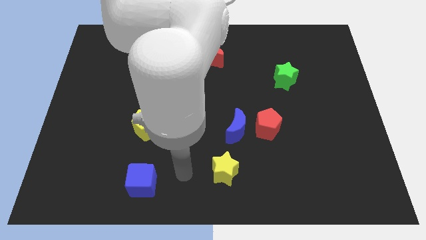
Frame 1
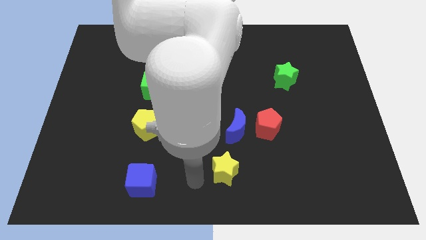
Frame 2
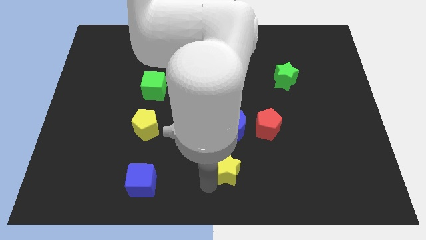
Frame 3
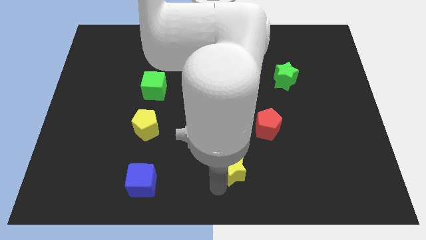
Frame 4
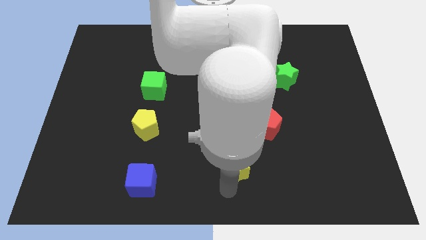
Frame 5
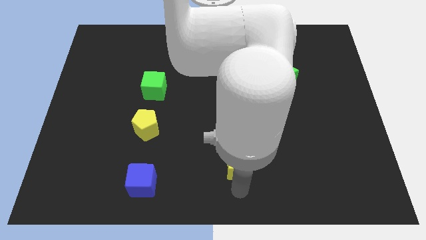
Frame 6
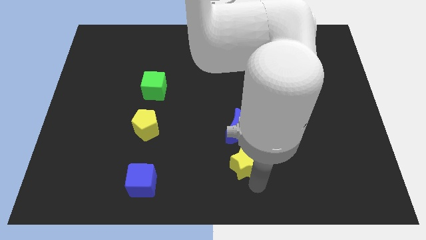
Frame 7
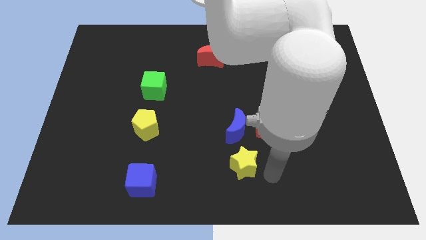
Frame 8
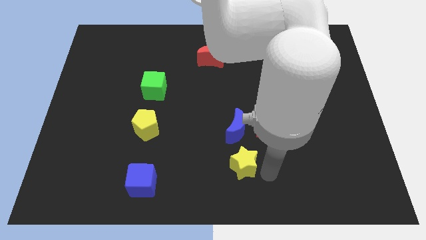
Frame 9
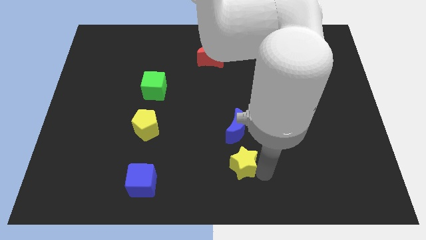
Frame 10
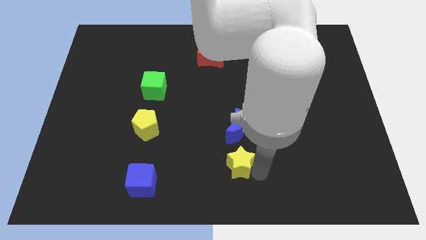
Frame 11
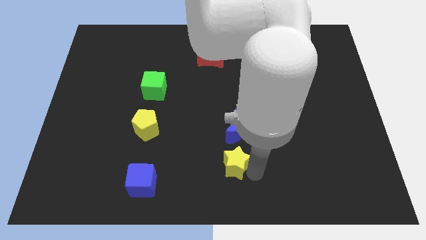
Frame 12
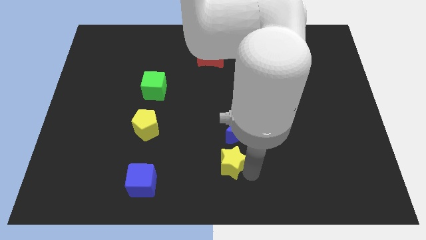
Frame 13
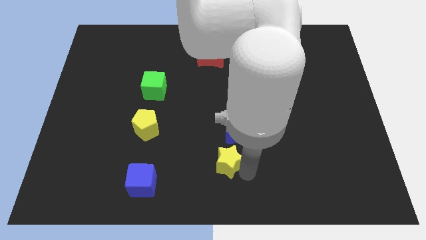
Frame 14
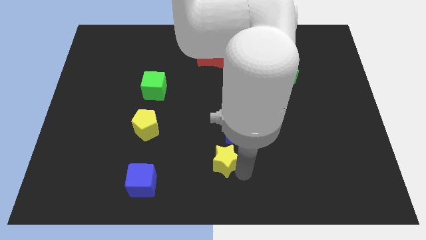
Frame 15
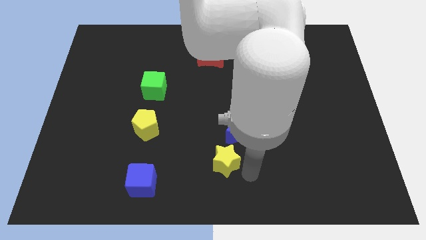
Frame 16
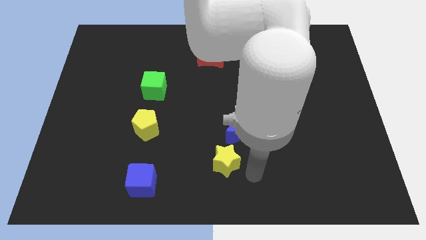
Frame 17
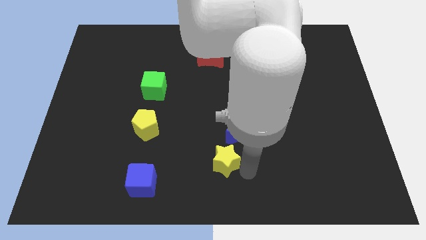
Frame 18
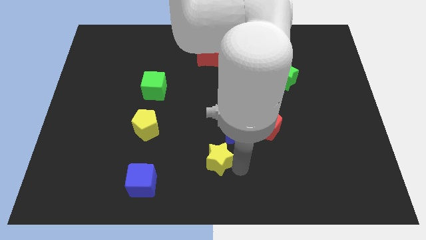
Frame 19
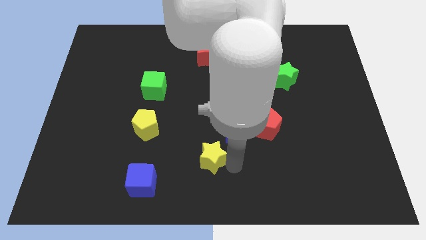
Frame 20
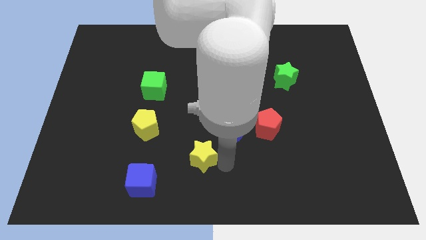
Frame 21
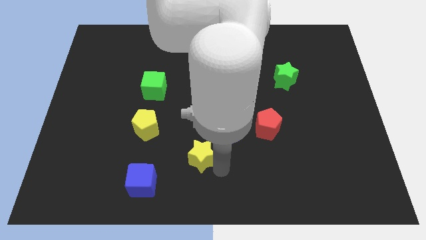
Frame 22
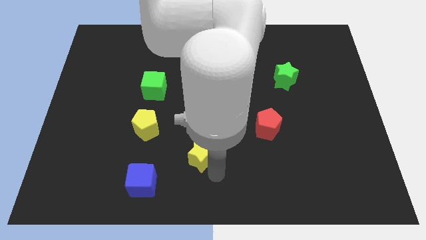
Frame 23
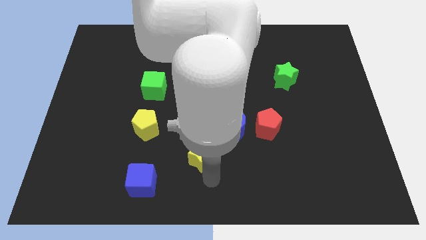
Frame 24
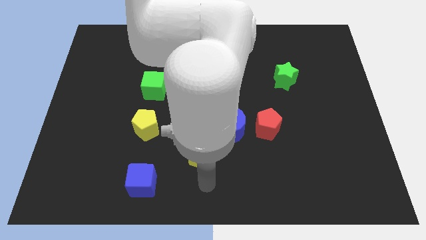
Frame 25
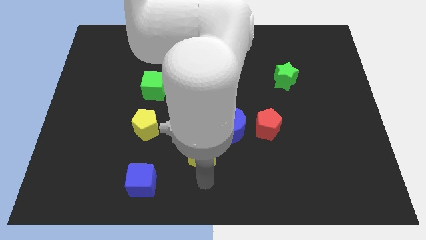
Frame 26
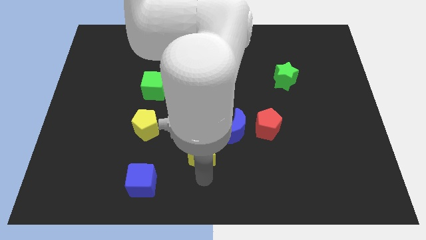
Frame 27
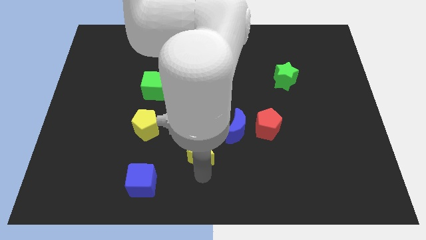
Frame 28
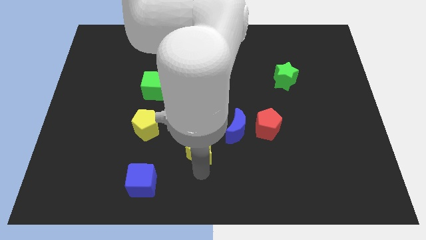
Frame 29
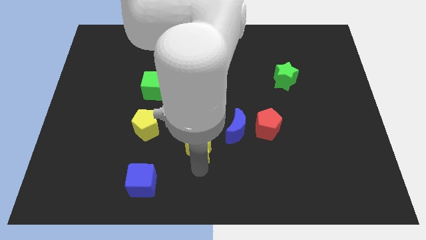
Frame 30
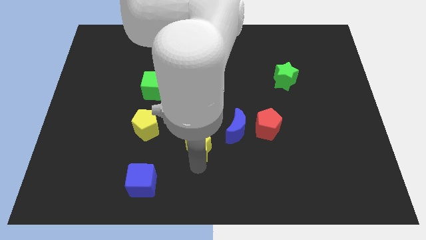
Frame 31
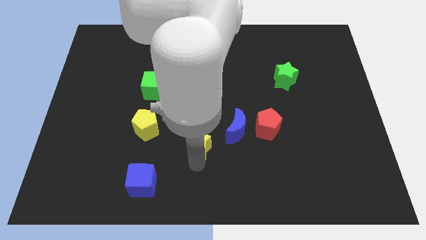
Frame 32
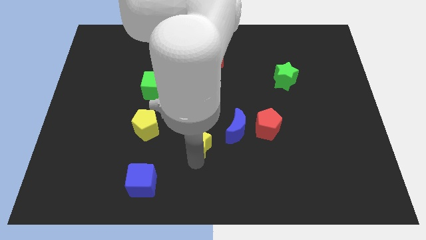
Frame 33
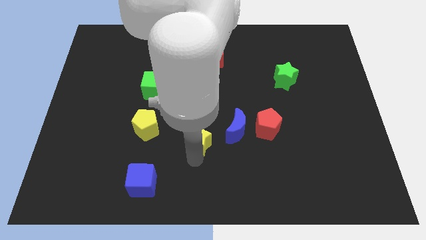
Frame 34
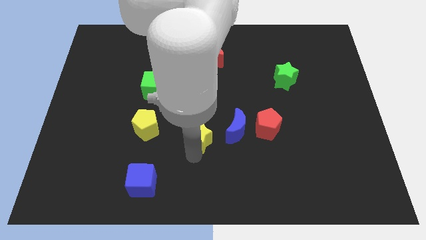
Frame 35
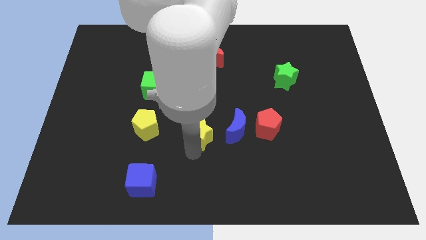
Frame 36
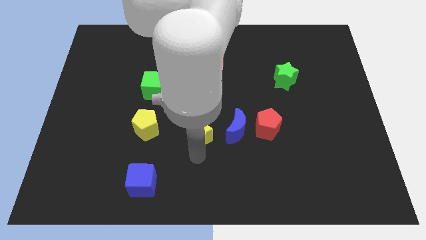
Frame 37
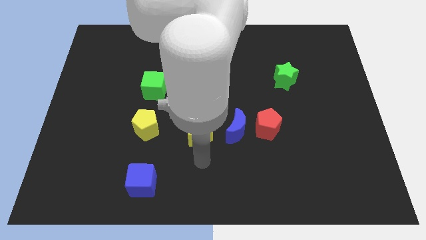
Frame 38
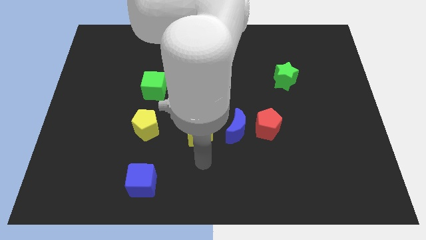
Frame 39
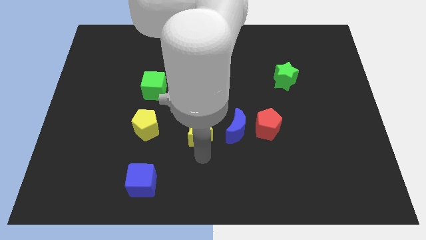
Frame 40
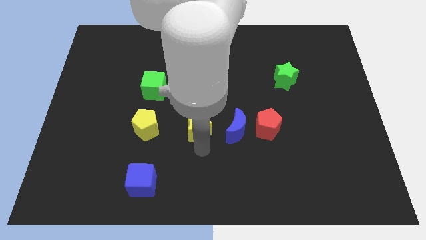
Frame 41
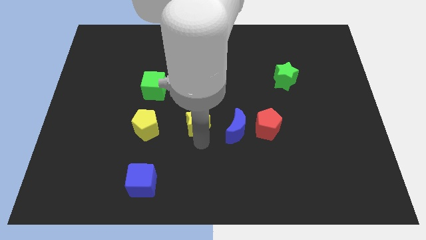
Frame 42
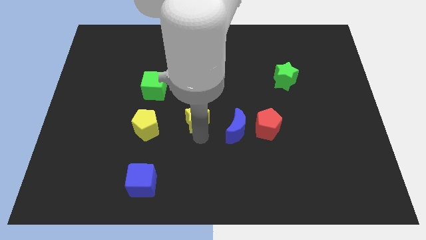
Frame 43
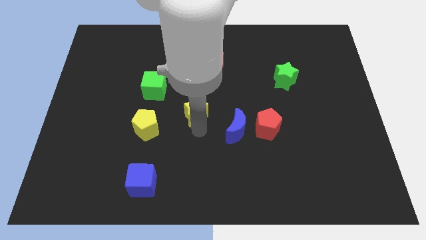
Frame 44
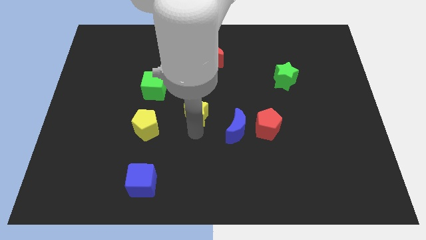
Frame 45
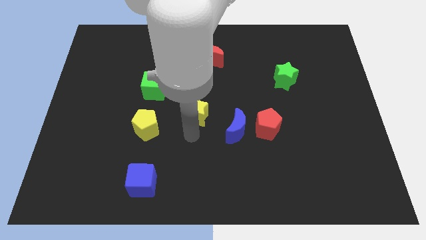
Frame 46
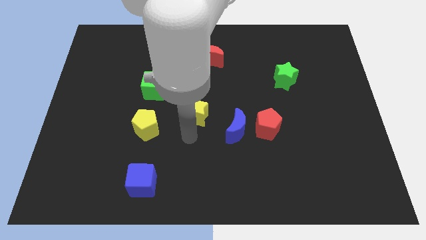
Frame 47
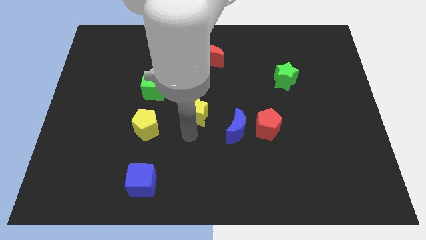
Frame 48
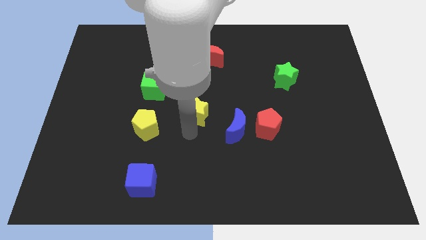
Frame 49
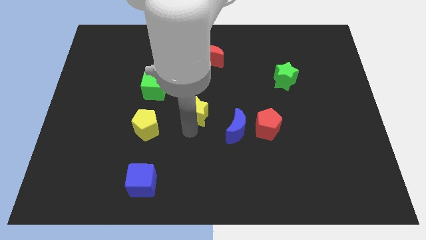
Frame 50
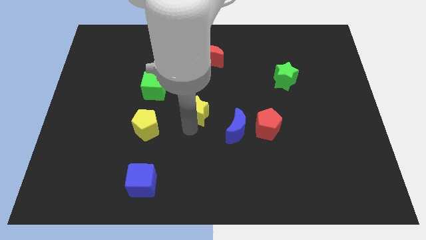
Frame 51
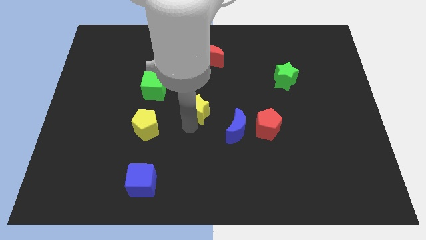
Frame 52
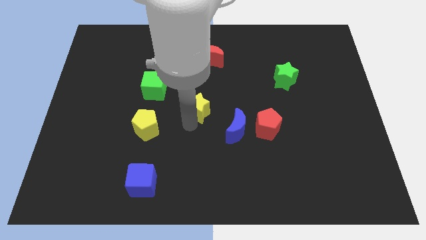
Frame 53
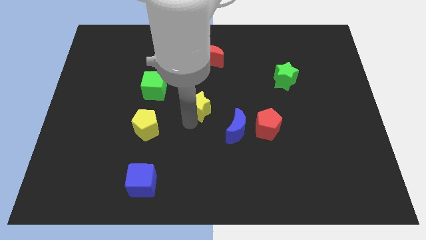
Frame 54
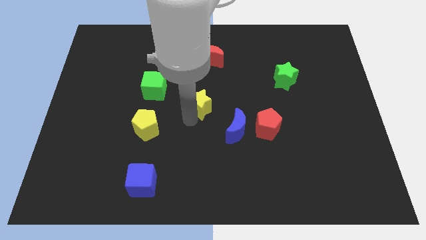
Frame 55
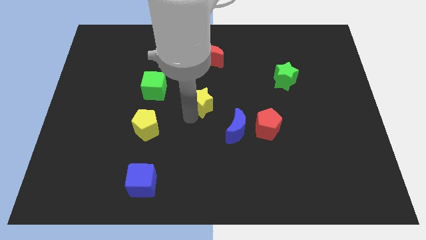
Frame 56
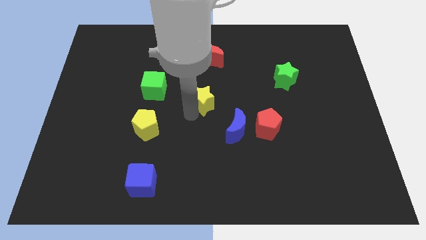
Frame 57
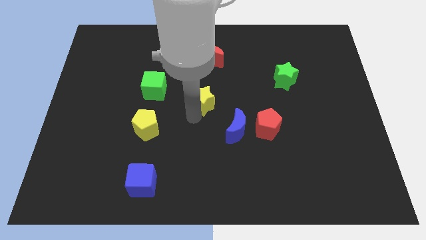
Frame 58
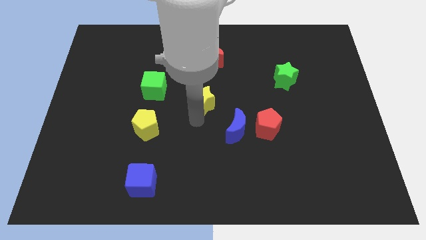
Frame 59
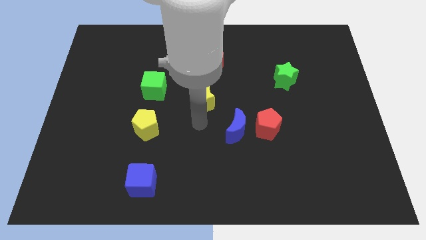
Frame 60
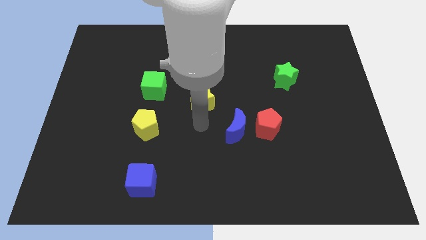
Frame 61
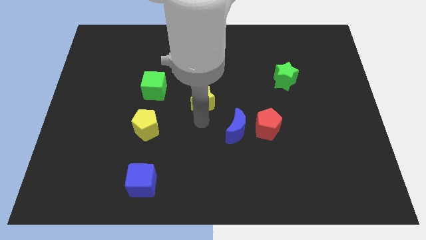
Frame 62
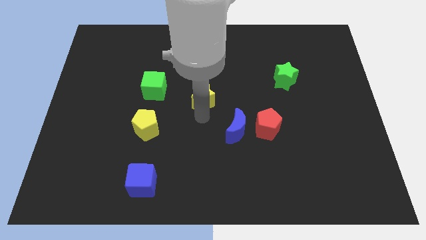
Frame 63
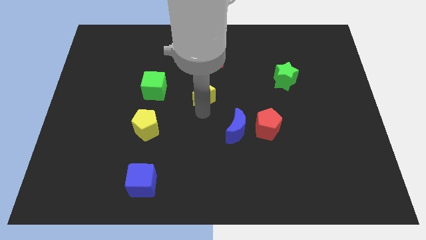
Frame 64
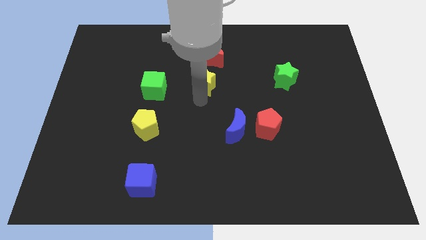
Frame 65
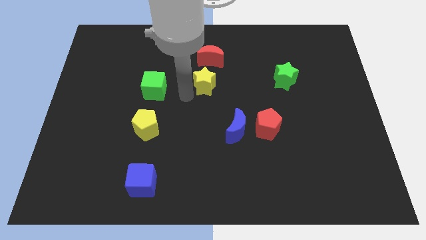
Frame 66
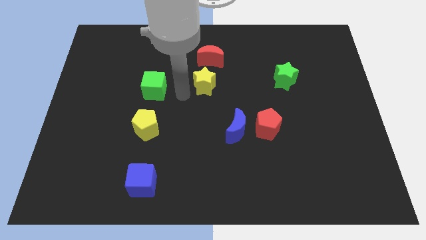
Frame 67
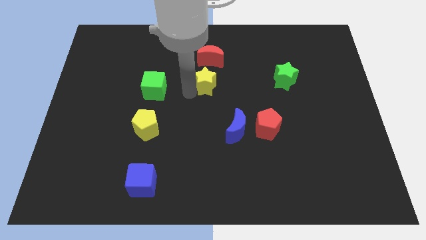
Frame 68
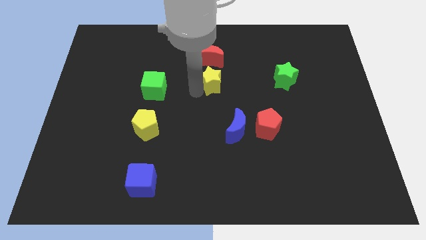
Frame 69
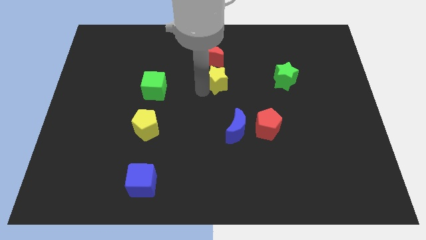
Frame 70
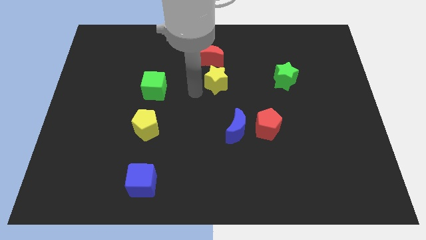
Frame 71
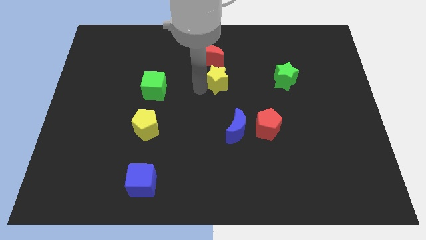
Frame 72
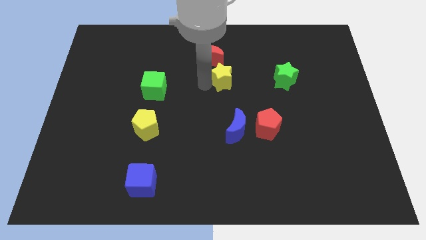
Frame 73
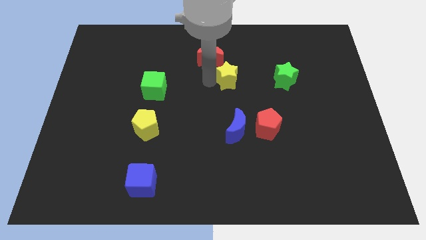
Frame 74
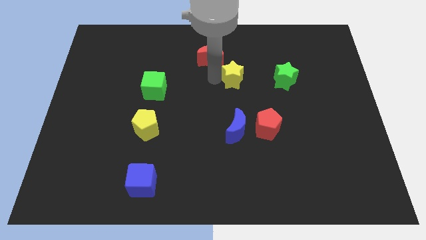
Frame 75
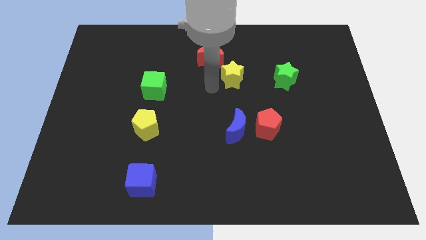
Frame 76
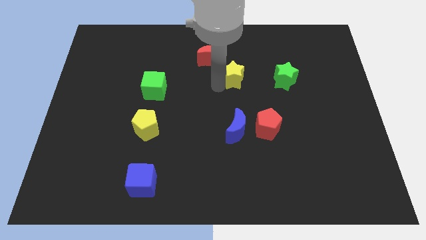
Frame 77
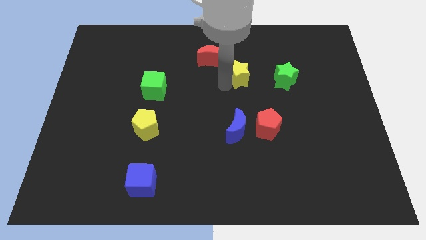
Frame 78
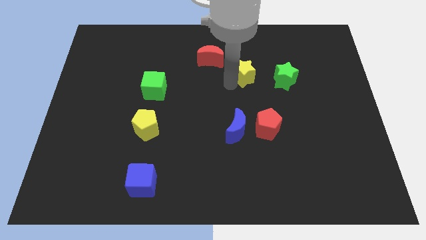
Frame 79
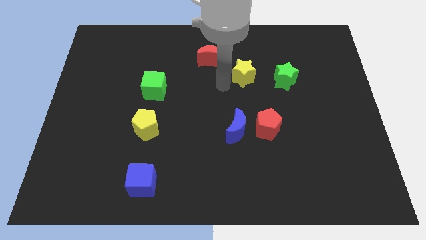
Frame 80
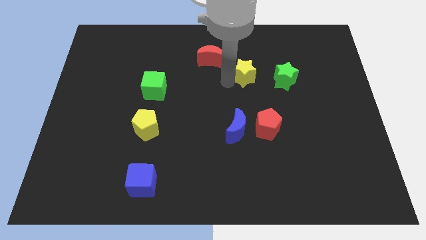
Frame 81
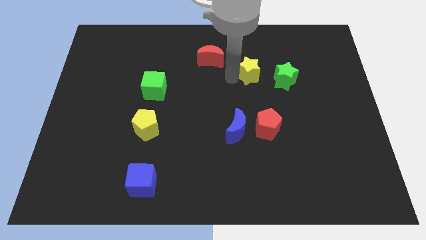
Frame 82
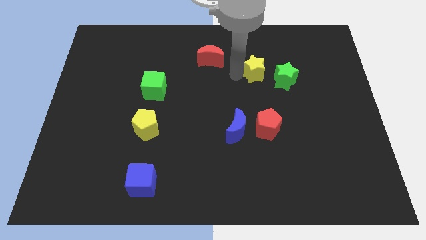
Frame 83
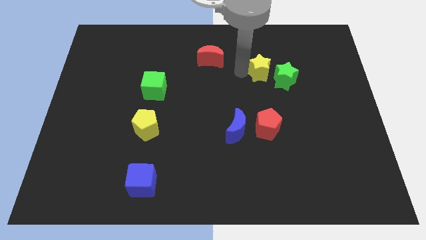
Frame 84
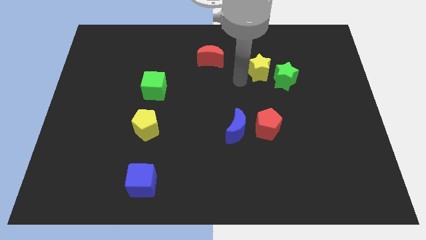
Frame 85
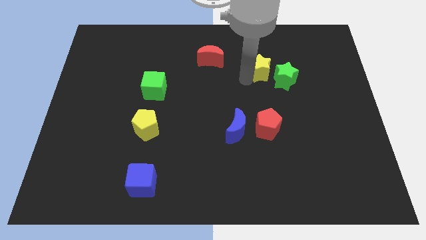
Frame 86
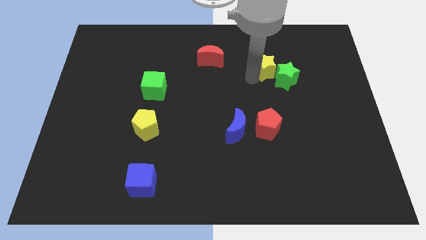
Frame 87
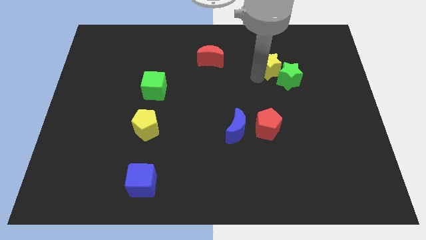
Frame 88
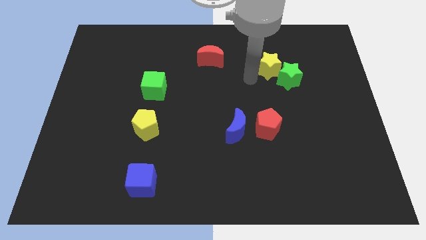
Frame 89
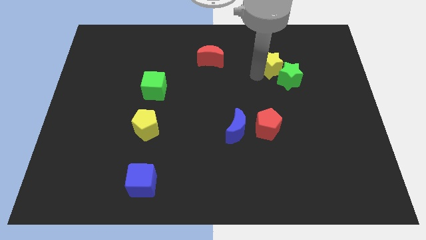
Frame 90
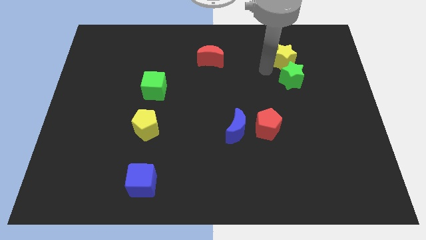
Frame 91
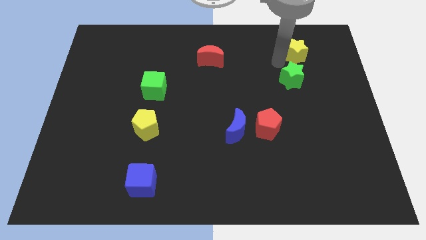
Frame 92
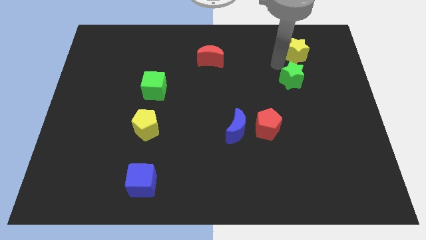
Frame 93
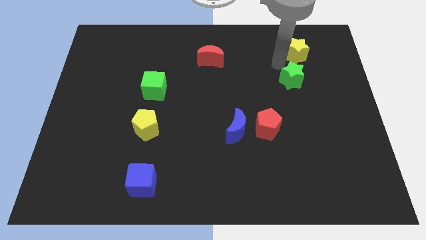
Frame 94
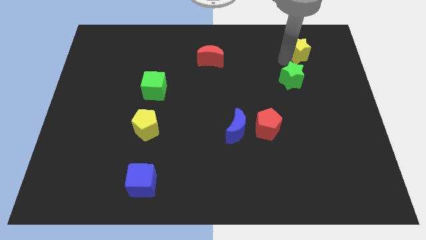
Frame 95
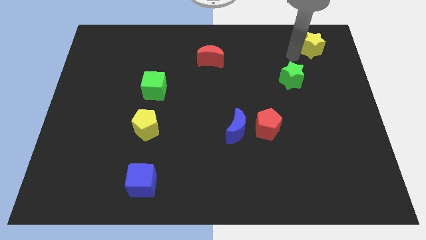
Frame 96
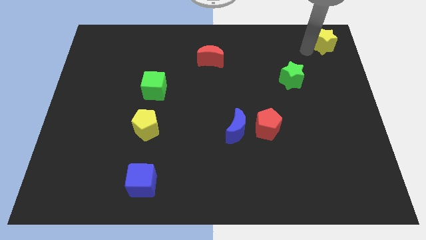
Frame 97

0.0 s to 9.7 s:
push the yellow star to the top right corner
